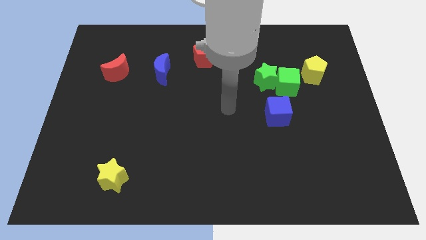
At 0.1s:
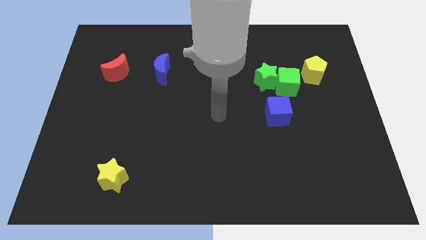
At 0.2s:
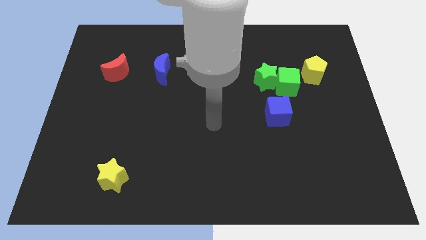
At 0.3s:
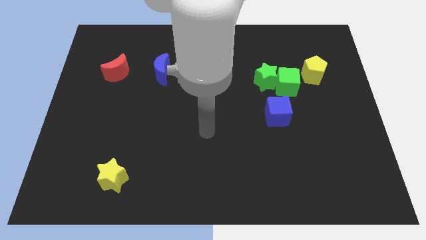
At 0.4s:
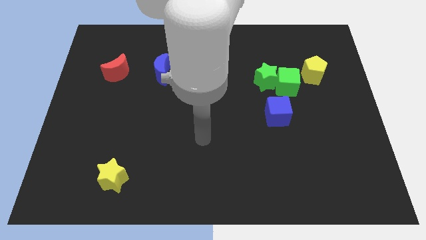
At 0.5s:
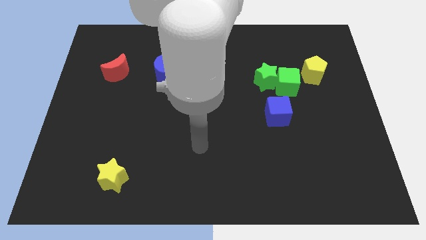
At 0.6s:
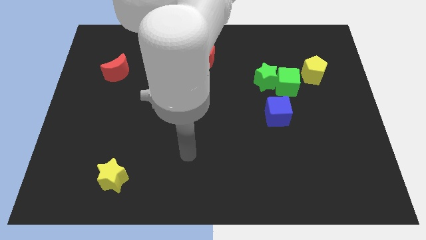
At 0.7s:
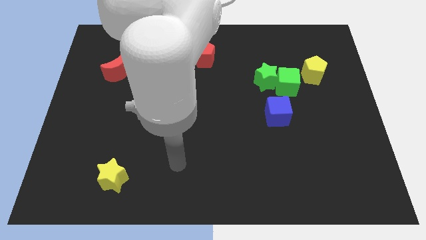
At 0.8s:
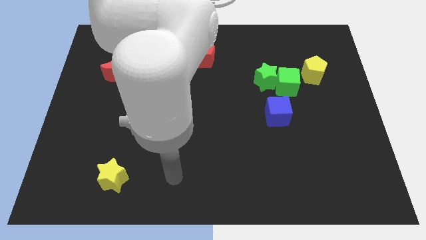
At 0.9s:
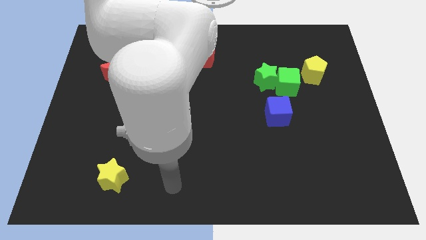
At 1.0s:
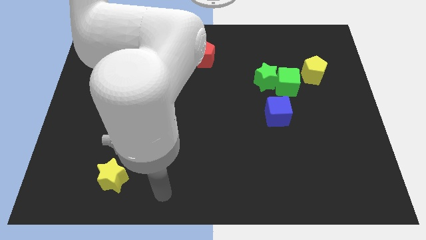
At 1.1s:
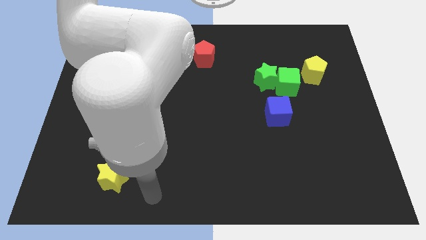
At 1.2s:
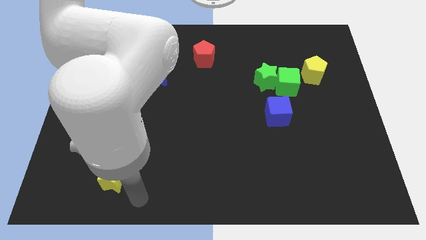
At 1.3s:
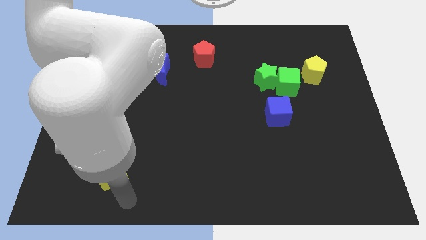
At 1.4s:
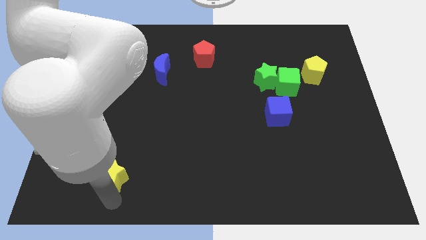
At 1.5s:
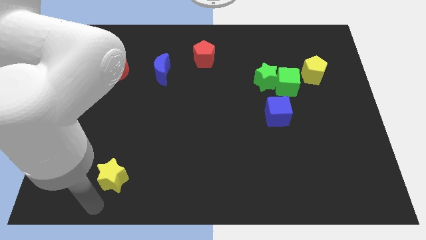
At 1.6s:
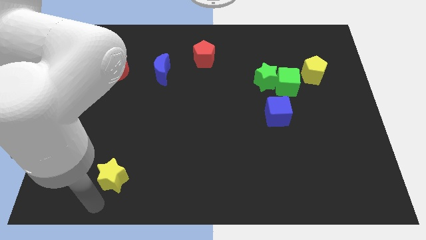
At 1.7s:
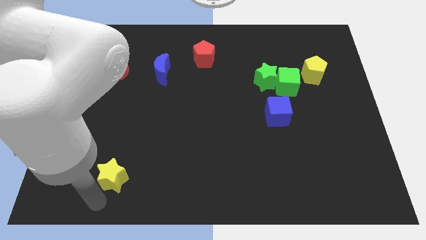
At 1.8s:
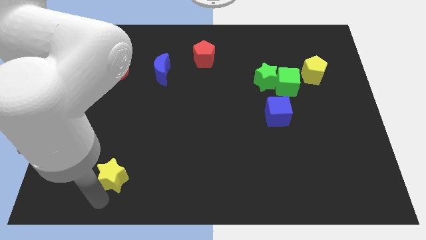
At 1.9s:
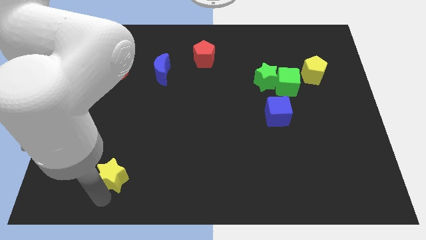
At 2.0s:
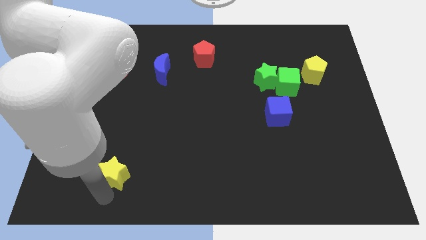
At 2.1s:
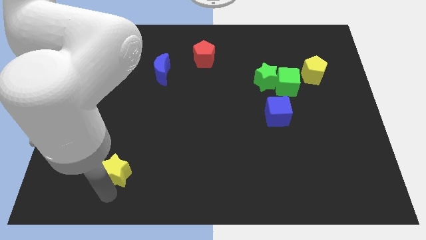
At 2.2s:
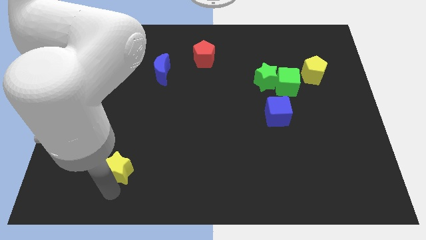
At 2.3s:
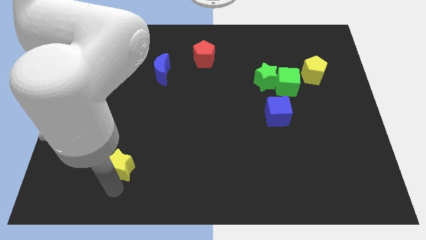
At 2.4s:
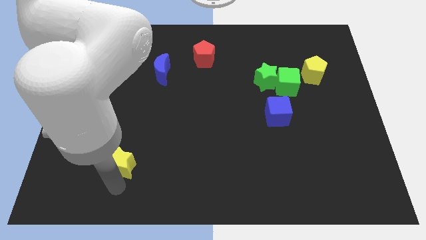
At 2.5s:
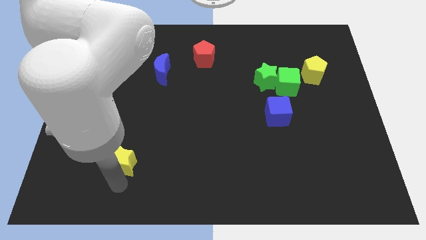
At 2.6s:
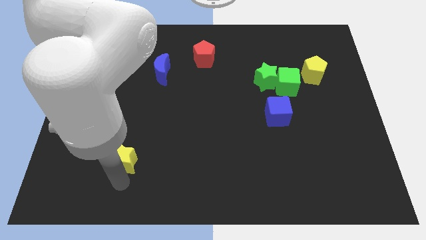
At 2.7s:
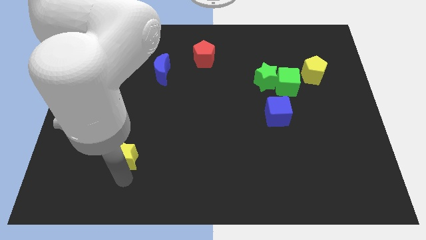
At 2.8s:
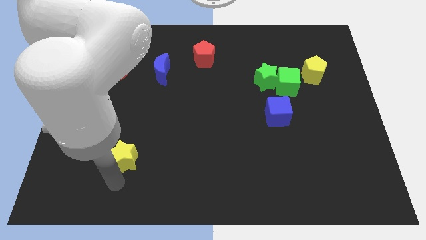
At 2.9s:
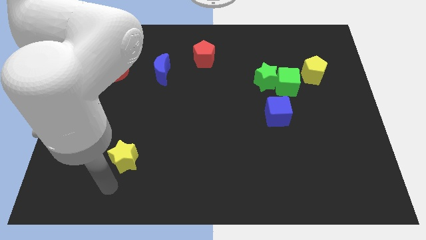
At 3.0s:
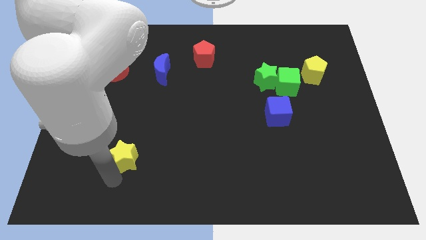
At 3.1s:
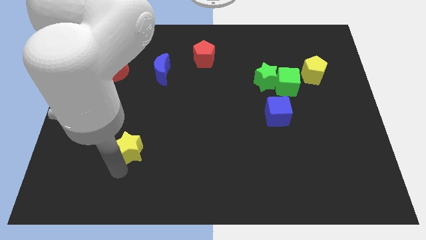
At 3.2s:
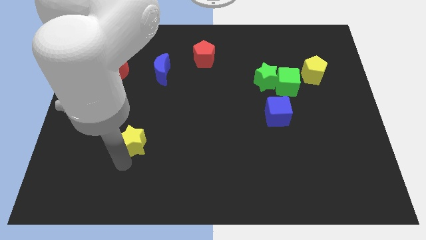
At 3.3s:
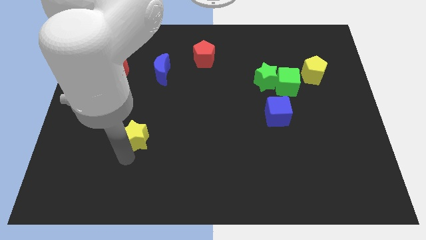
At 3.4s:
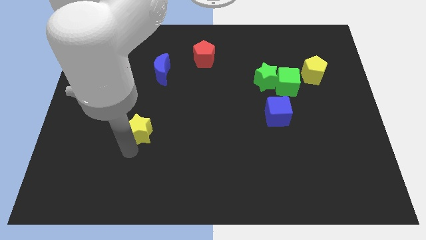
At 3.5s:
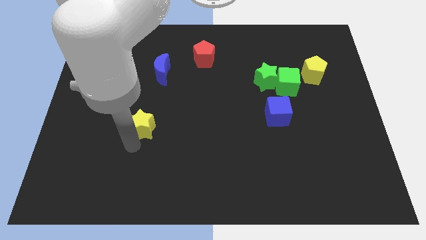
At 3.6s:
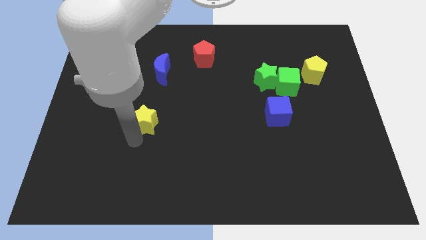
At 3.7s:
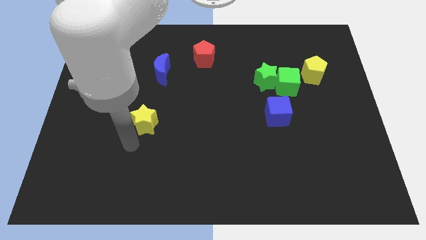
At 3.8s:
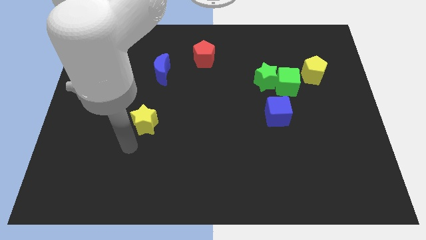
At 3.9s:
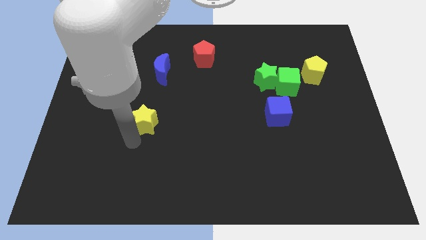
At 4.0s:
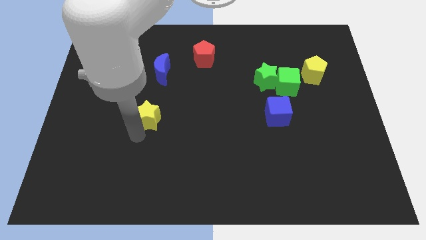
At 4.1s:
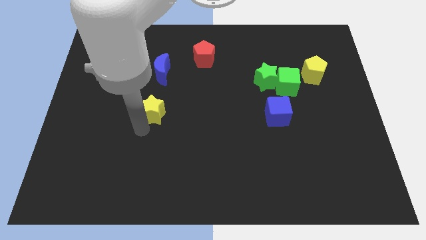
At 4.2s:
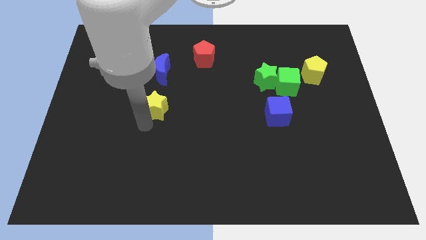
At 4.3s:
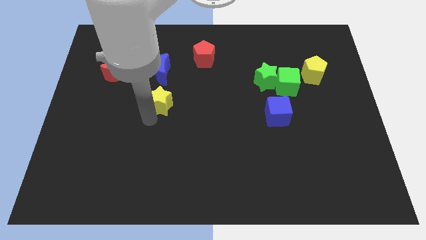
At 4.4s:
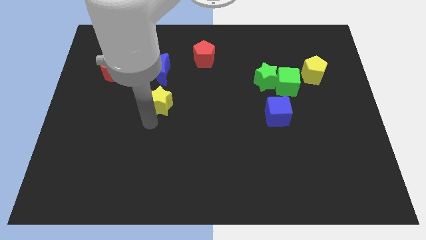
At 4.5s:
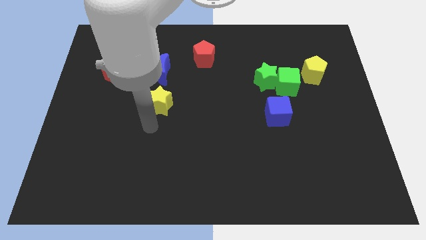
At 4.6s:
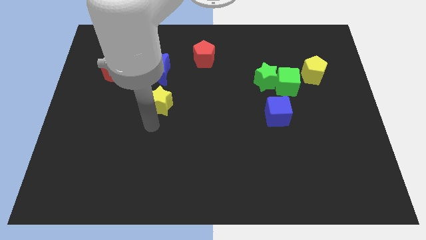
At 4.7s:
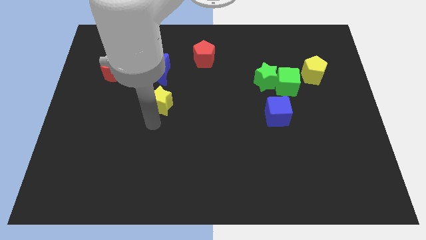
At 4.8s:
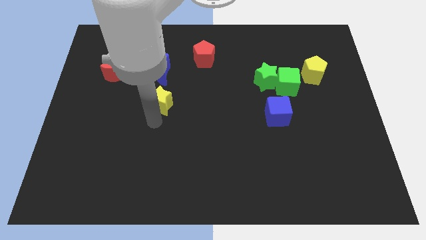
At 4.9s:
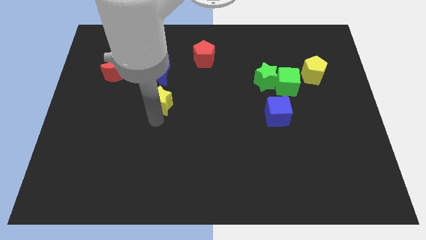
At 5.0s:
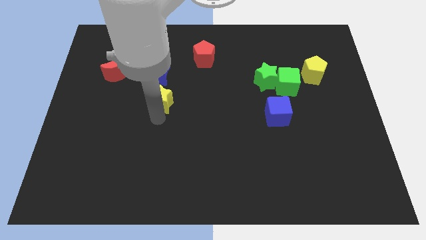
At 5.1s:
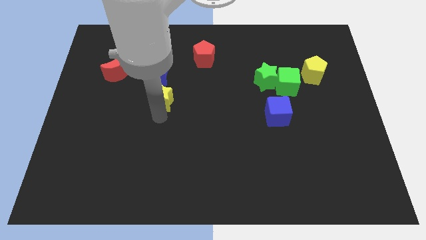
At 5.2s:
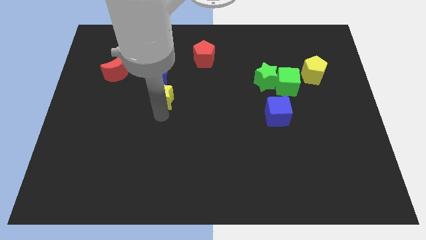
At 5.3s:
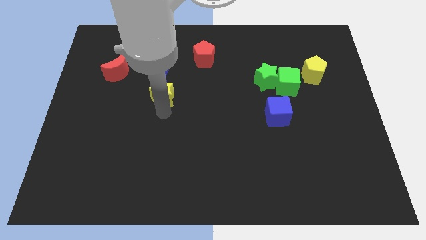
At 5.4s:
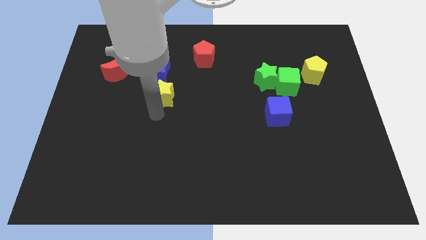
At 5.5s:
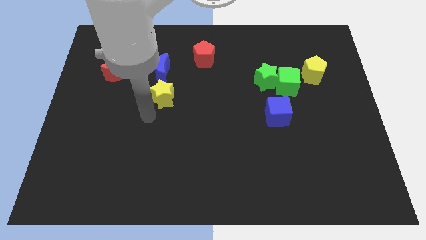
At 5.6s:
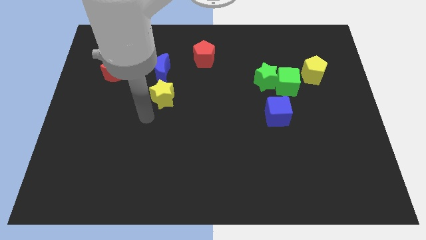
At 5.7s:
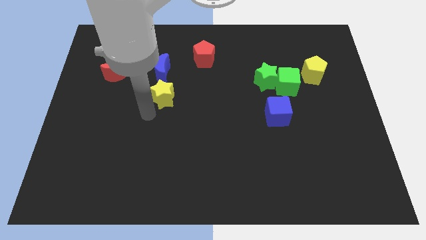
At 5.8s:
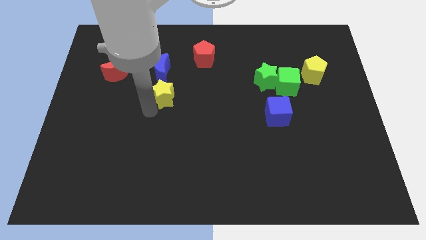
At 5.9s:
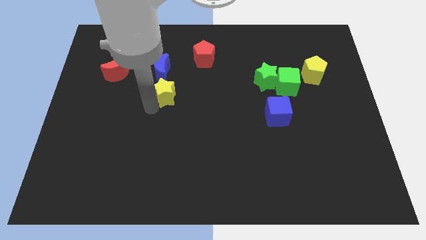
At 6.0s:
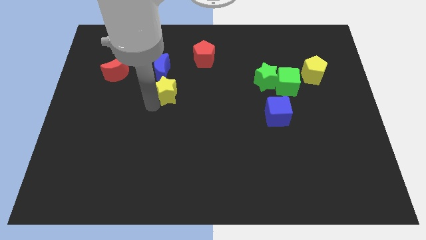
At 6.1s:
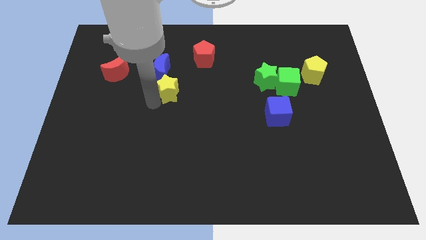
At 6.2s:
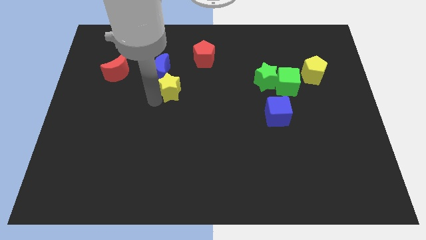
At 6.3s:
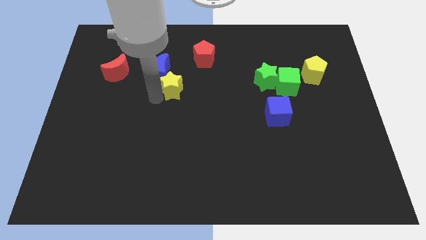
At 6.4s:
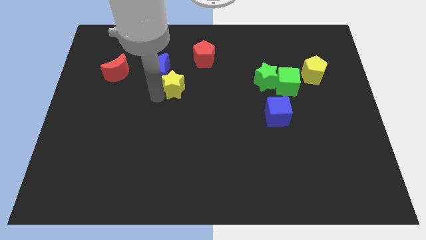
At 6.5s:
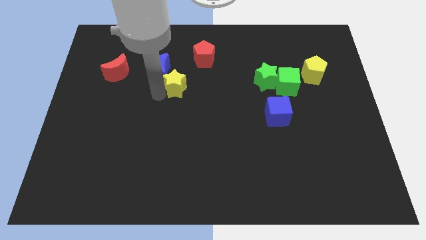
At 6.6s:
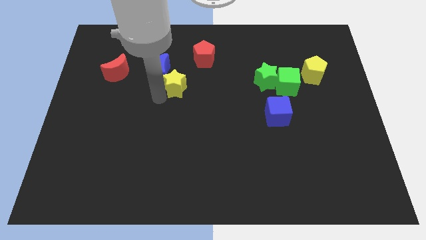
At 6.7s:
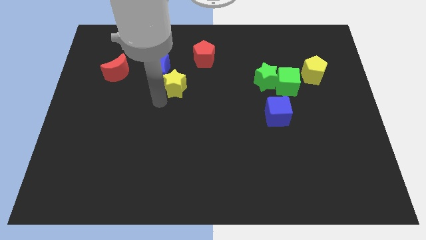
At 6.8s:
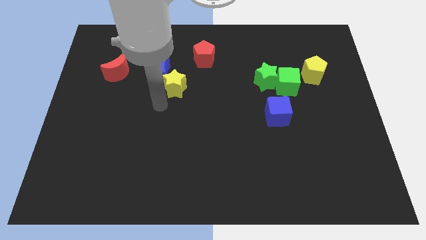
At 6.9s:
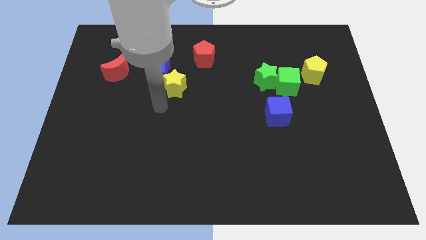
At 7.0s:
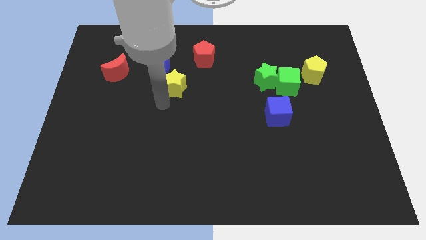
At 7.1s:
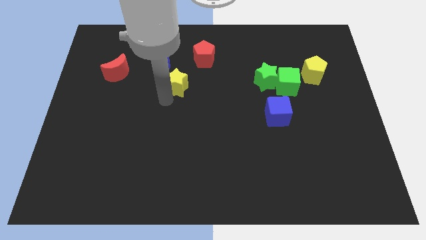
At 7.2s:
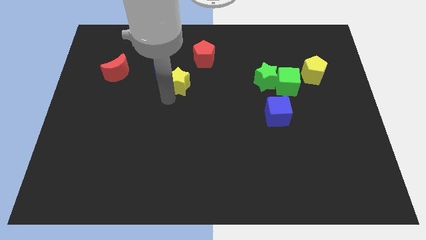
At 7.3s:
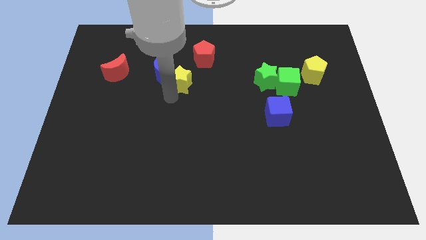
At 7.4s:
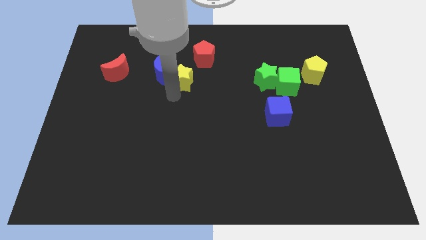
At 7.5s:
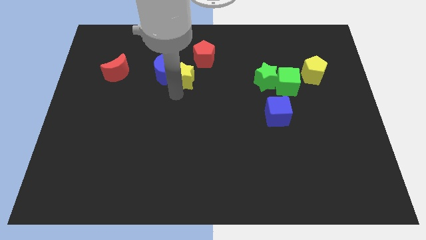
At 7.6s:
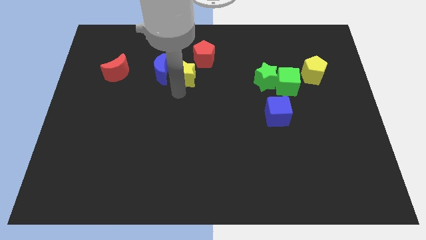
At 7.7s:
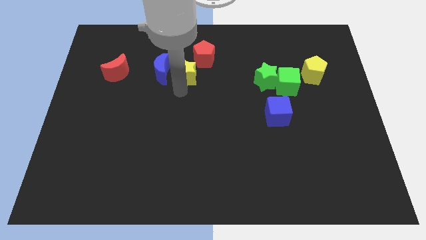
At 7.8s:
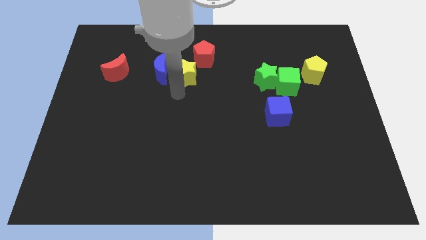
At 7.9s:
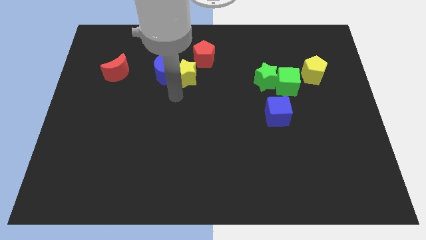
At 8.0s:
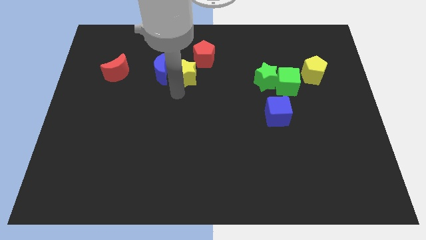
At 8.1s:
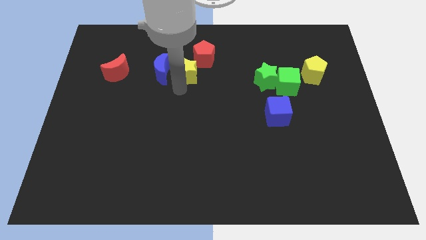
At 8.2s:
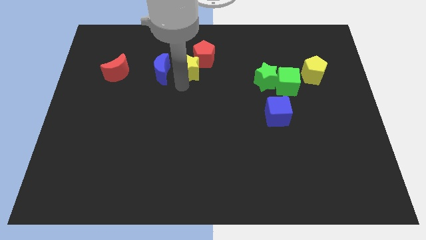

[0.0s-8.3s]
push the yellow star towards the red pentagon
